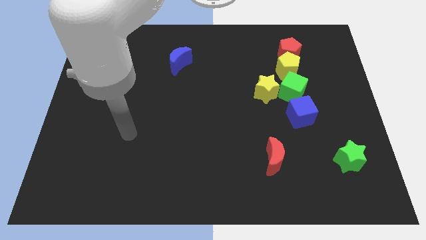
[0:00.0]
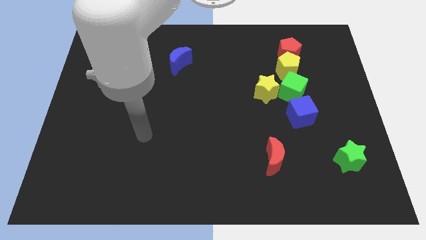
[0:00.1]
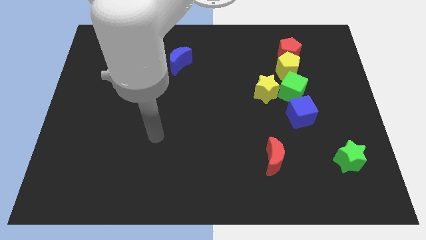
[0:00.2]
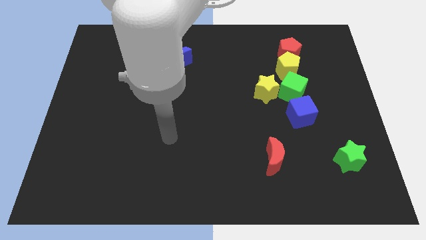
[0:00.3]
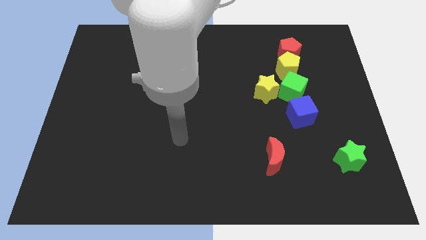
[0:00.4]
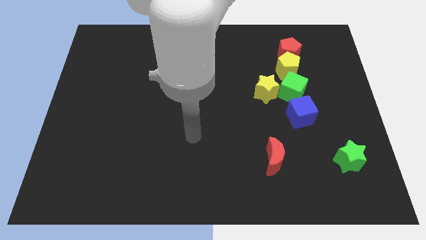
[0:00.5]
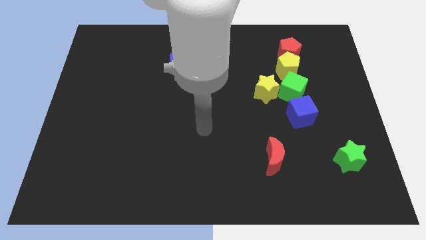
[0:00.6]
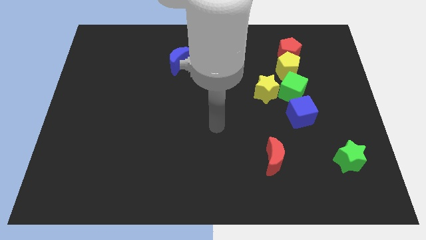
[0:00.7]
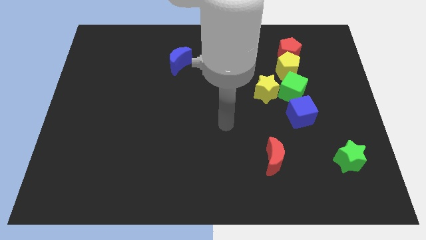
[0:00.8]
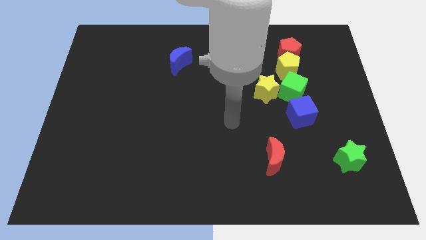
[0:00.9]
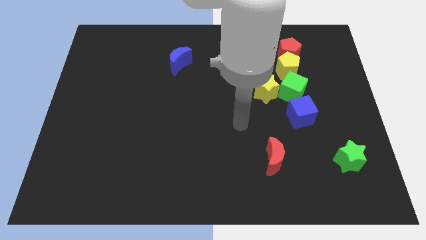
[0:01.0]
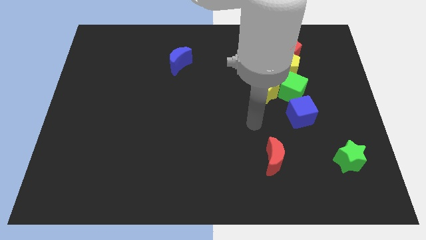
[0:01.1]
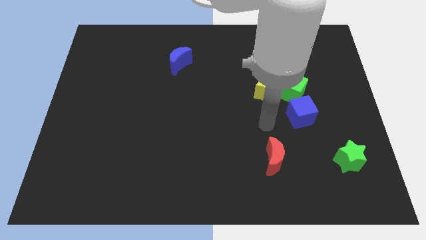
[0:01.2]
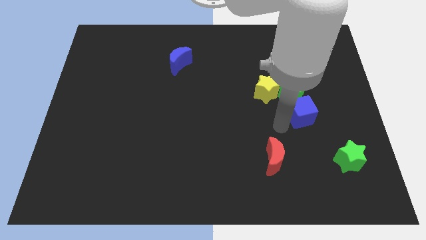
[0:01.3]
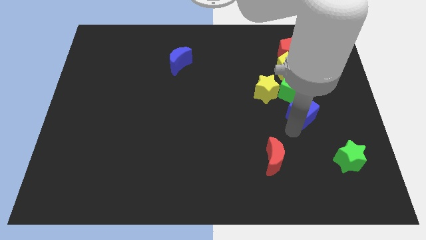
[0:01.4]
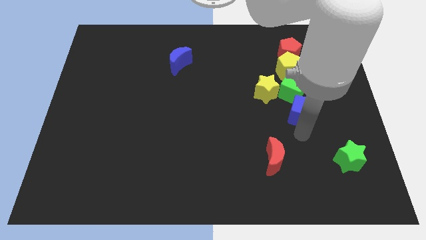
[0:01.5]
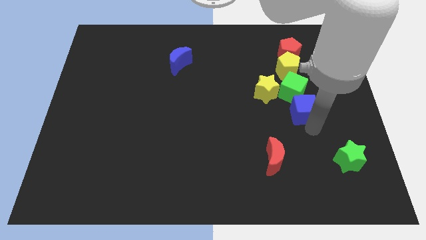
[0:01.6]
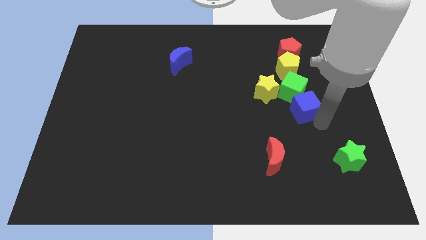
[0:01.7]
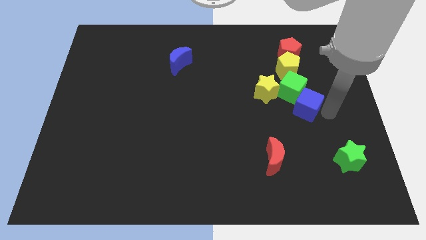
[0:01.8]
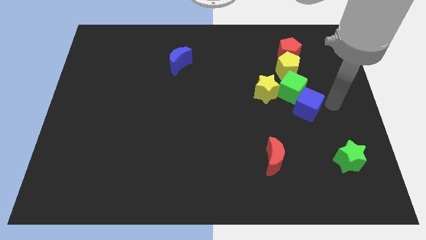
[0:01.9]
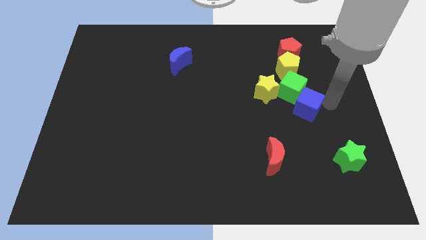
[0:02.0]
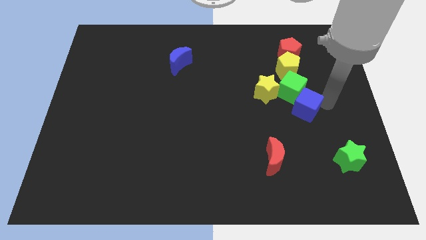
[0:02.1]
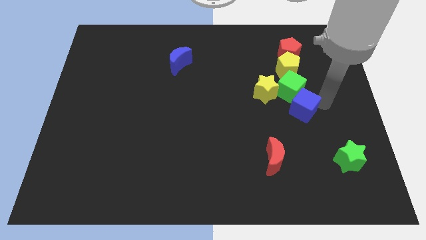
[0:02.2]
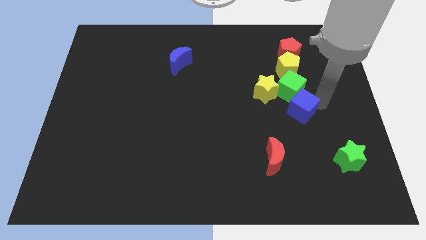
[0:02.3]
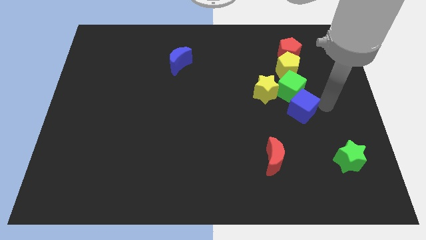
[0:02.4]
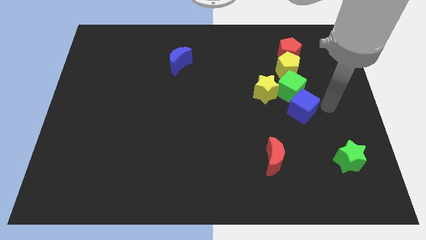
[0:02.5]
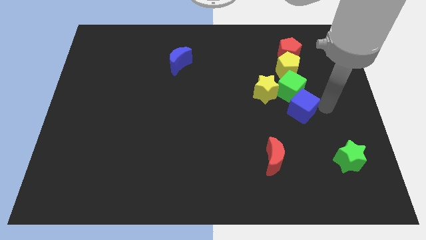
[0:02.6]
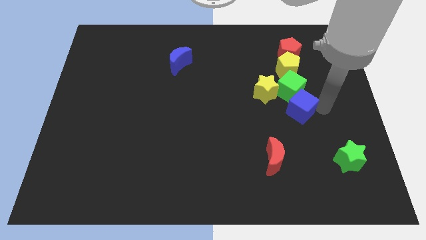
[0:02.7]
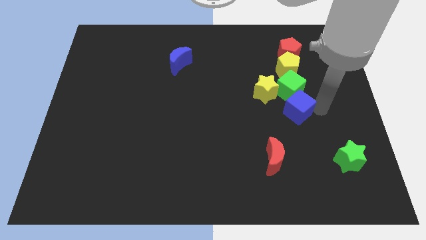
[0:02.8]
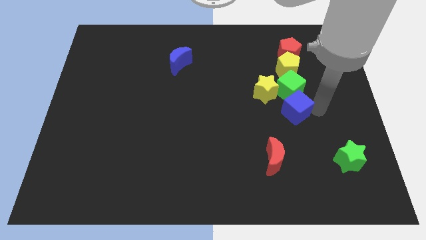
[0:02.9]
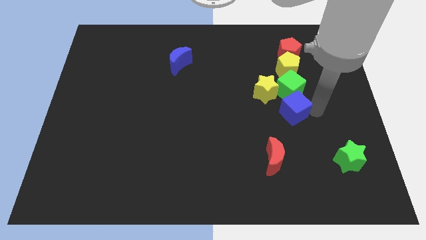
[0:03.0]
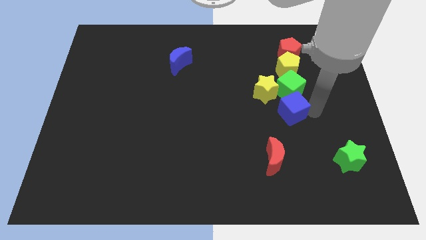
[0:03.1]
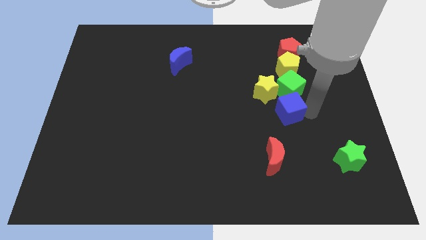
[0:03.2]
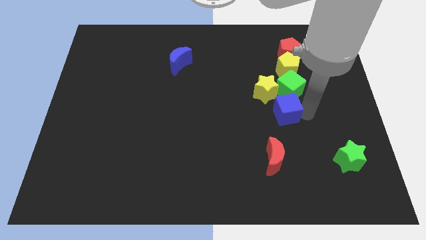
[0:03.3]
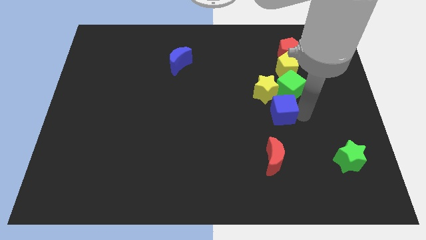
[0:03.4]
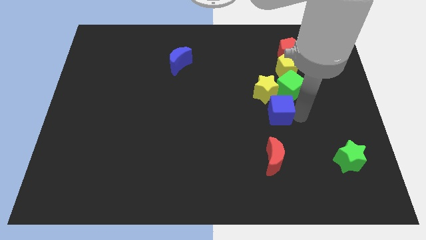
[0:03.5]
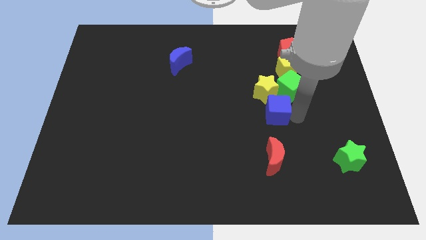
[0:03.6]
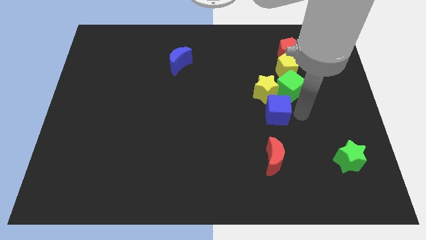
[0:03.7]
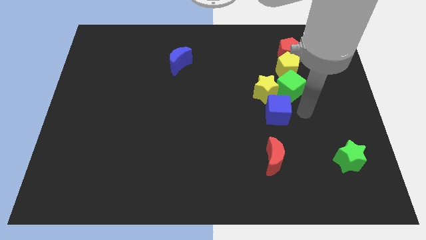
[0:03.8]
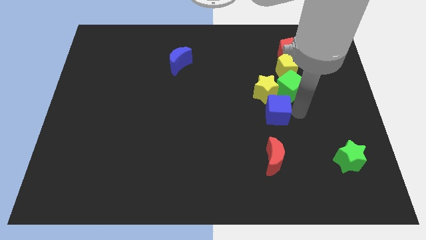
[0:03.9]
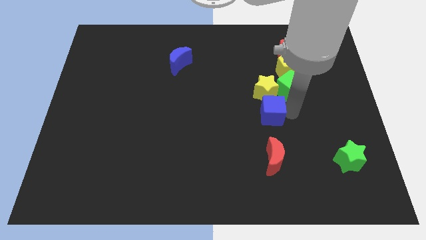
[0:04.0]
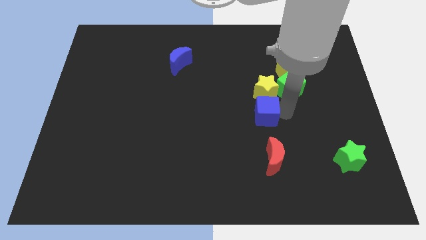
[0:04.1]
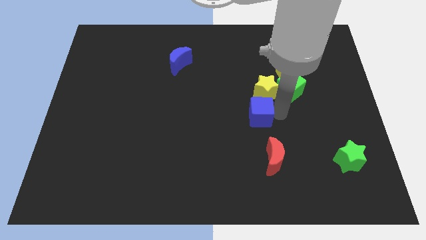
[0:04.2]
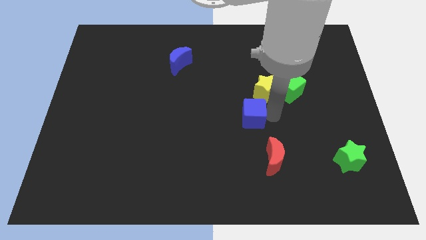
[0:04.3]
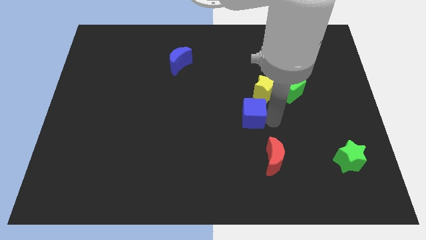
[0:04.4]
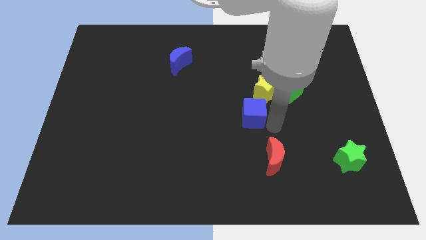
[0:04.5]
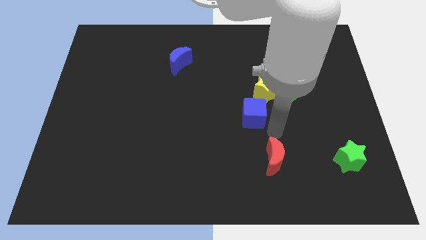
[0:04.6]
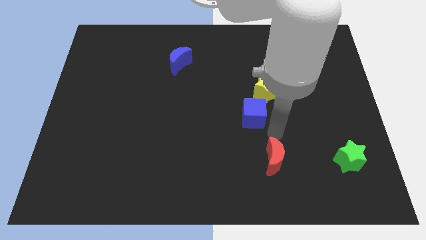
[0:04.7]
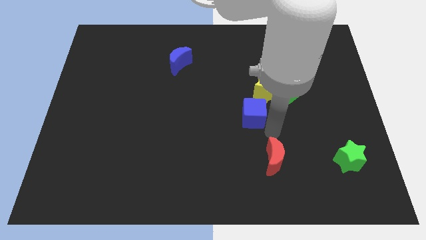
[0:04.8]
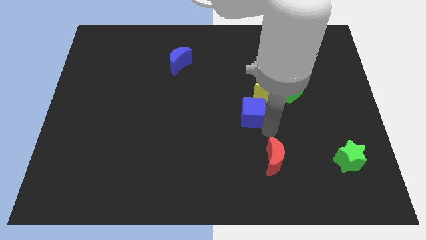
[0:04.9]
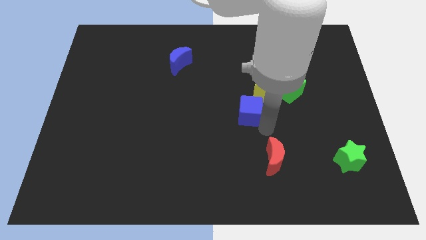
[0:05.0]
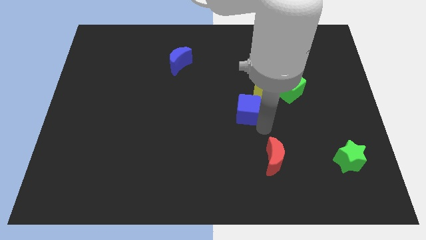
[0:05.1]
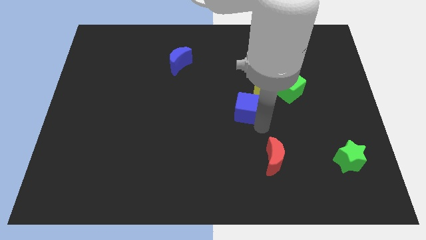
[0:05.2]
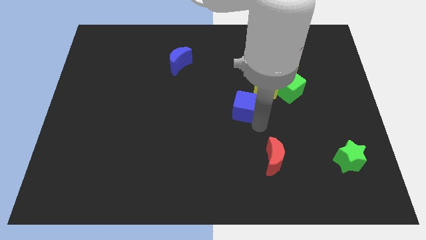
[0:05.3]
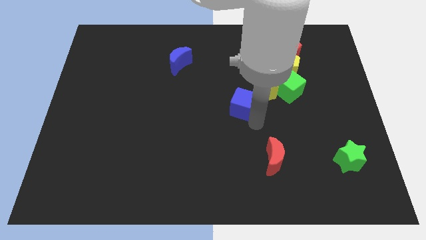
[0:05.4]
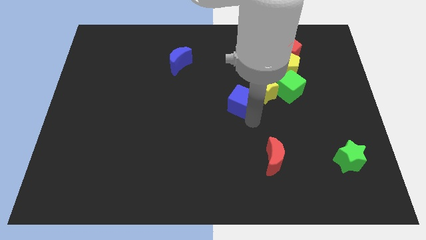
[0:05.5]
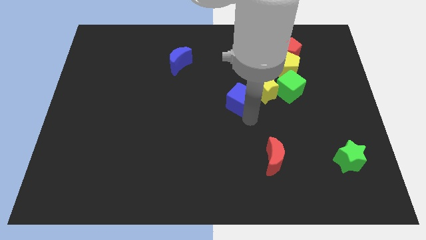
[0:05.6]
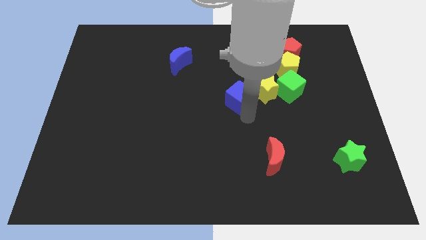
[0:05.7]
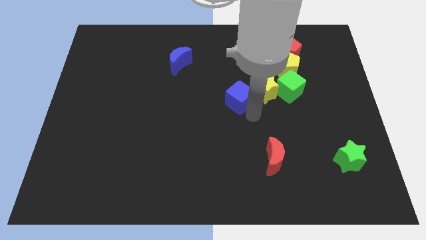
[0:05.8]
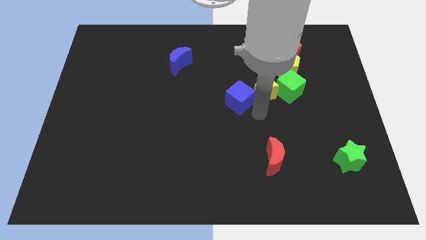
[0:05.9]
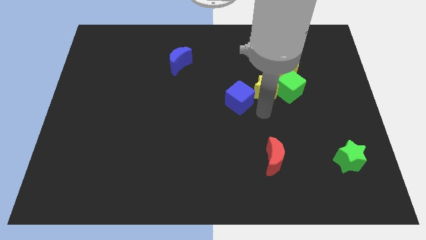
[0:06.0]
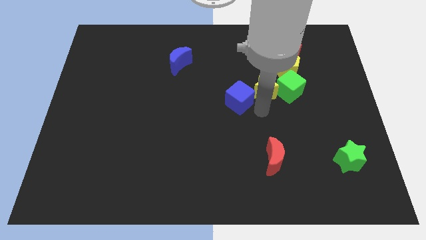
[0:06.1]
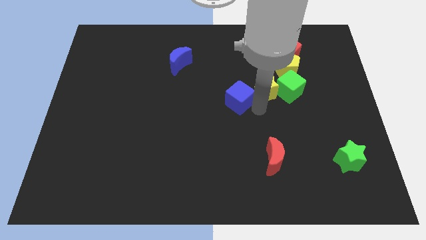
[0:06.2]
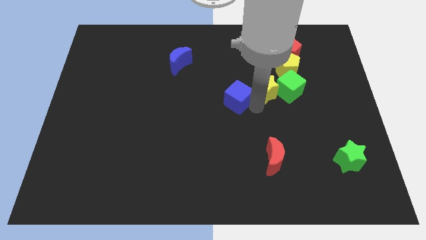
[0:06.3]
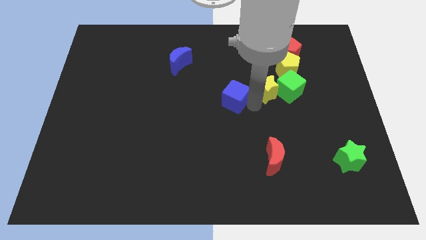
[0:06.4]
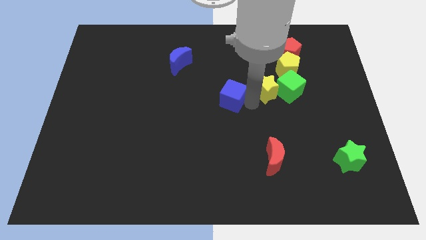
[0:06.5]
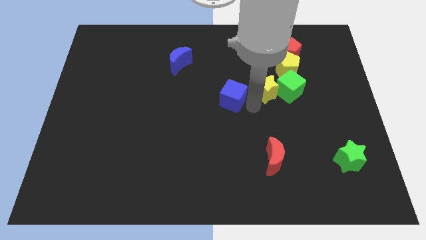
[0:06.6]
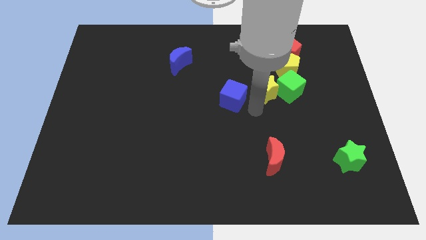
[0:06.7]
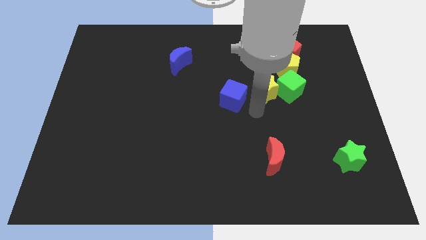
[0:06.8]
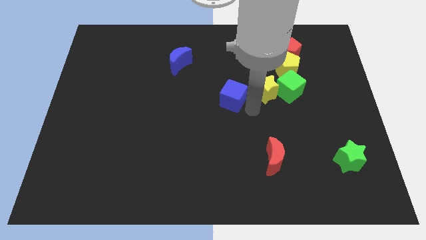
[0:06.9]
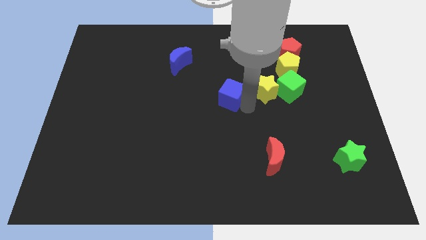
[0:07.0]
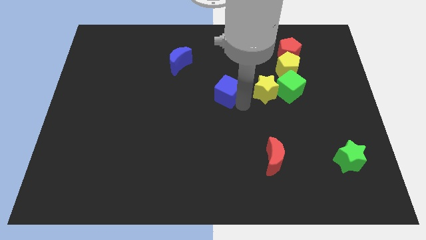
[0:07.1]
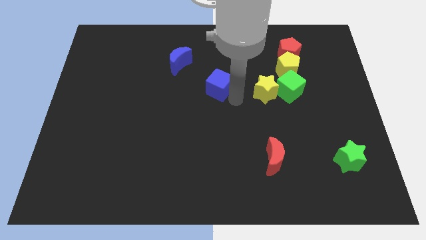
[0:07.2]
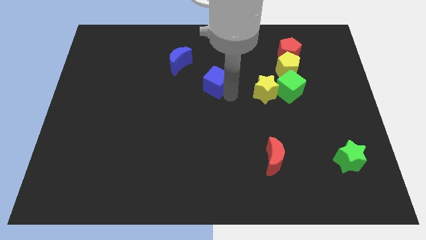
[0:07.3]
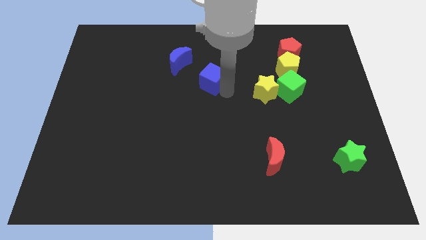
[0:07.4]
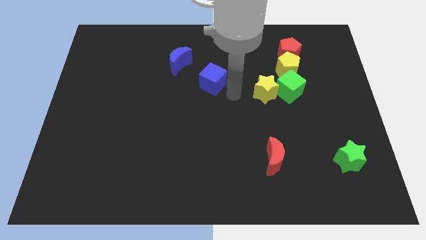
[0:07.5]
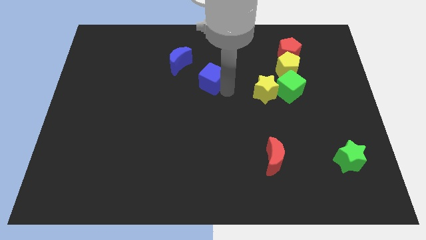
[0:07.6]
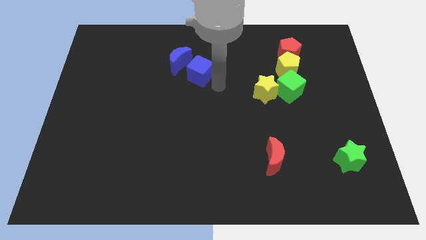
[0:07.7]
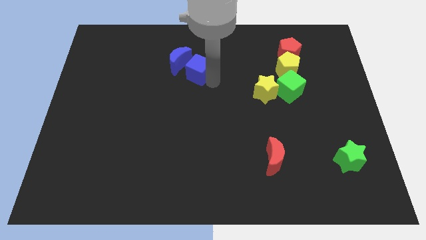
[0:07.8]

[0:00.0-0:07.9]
slide the blue cube next to the blue moon
